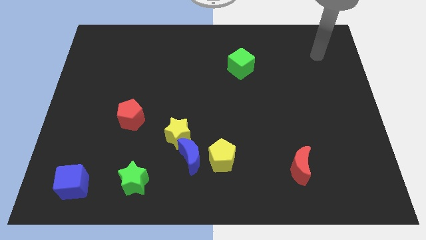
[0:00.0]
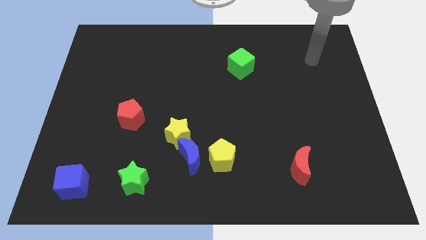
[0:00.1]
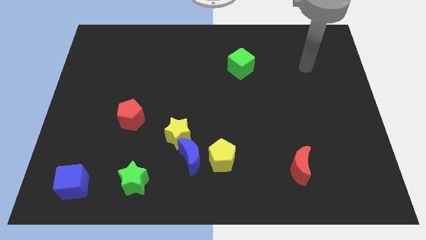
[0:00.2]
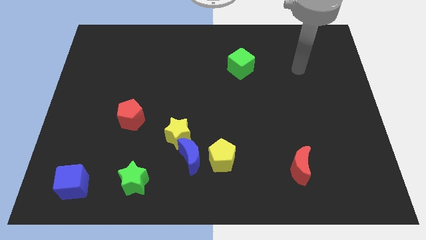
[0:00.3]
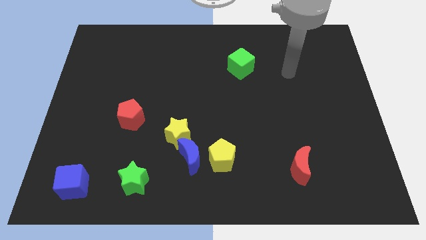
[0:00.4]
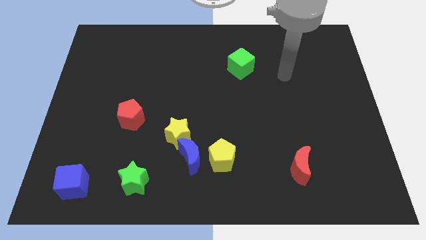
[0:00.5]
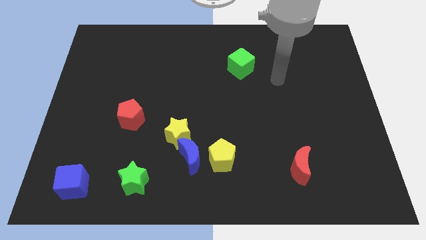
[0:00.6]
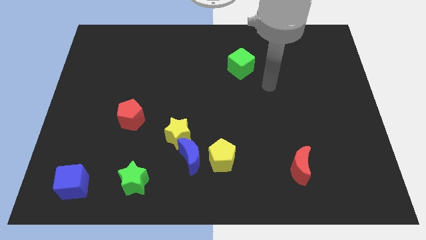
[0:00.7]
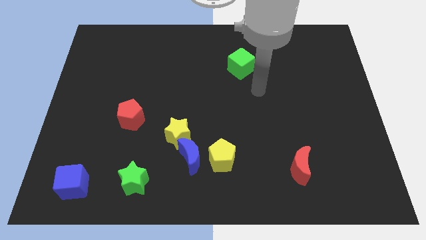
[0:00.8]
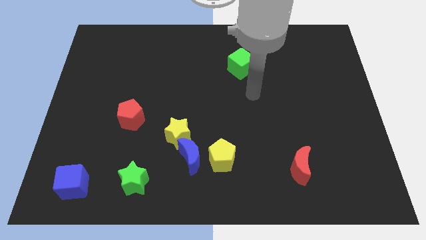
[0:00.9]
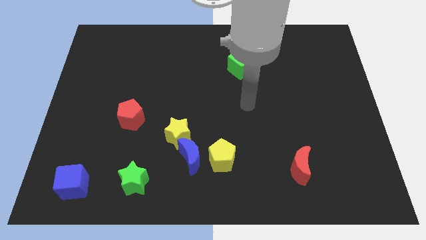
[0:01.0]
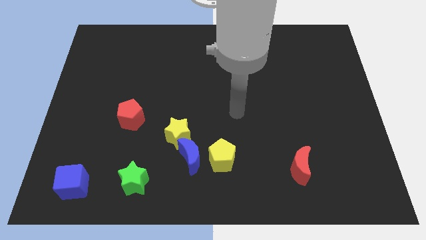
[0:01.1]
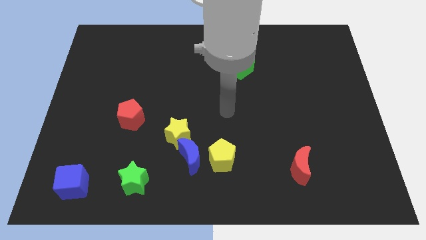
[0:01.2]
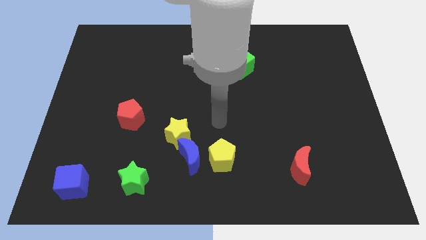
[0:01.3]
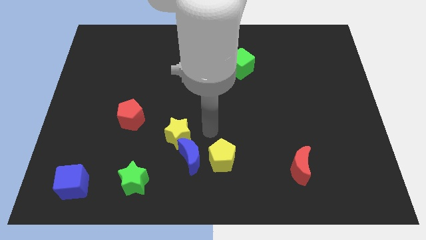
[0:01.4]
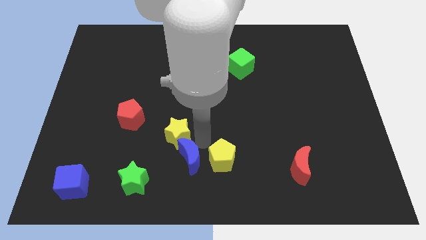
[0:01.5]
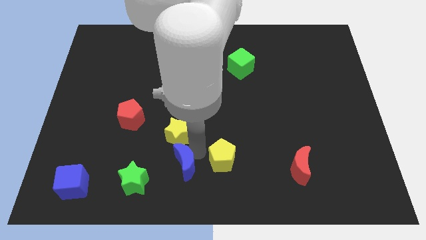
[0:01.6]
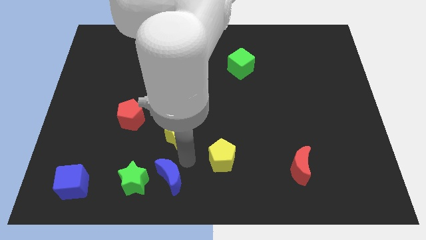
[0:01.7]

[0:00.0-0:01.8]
pull the yellow star apart from the blue moon

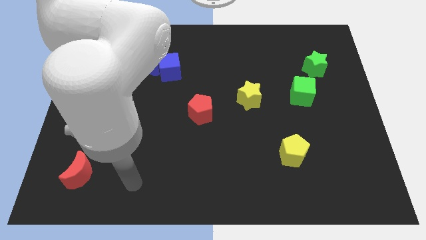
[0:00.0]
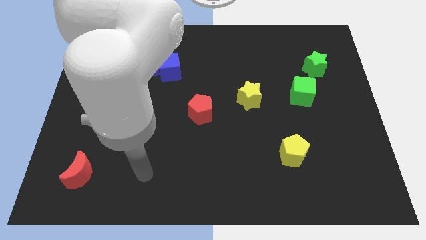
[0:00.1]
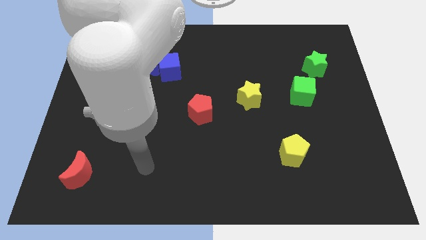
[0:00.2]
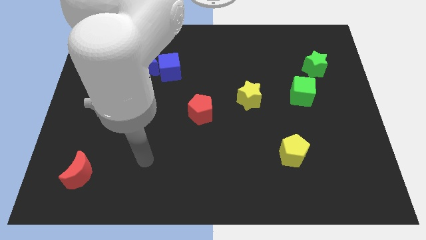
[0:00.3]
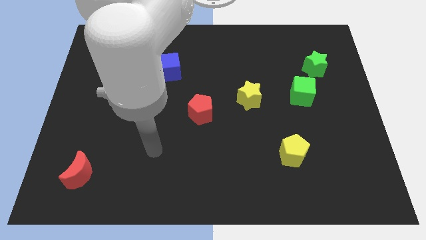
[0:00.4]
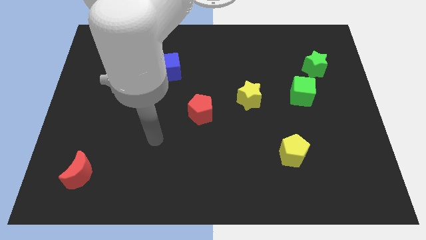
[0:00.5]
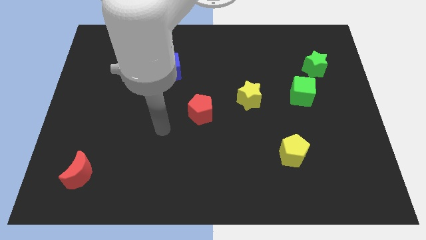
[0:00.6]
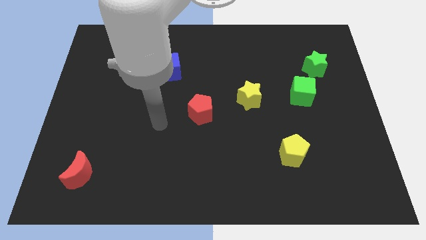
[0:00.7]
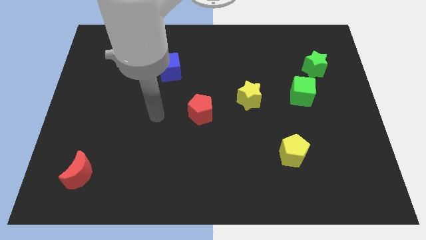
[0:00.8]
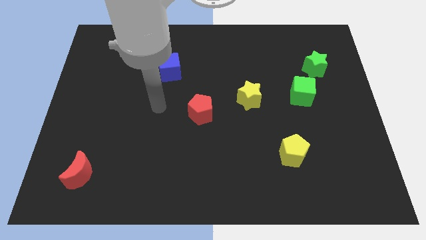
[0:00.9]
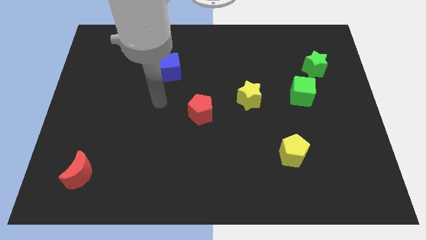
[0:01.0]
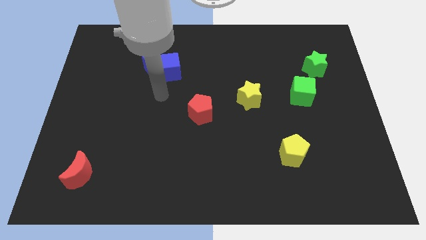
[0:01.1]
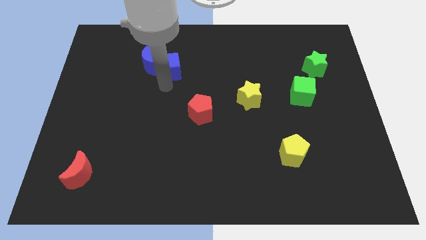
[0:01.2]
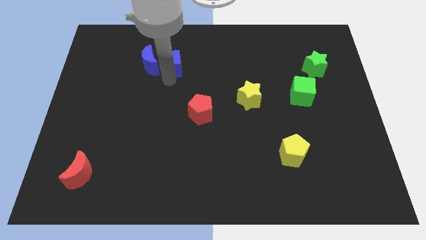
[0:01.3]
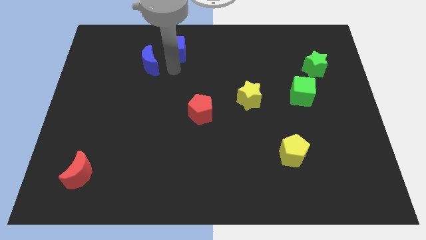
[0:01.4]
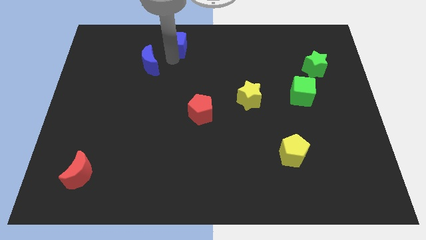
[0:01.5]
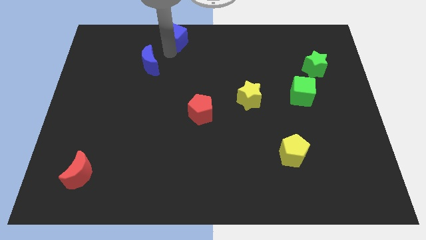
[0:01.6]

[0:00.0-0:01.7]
pull the blue moon apart from the blue cube

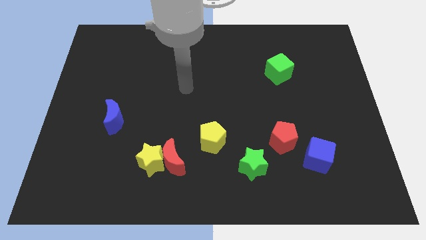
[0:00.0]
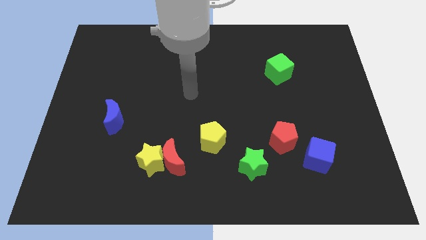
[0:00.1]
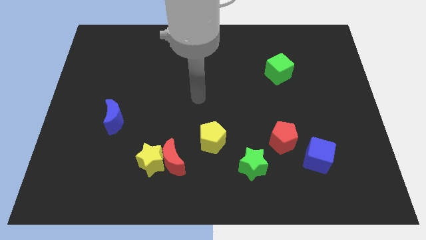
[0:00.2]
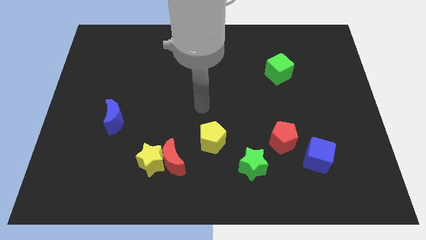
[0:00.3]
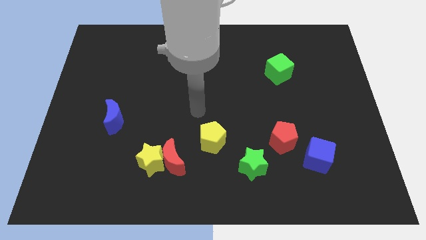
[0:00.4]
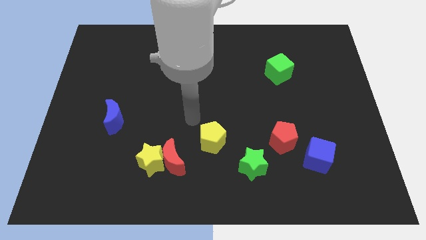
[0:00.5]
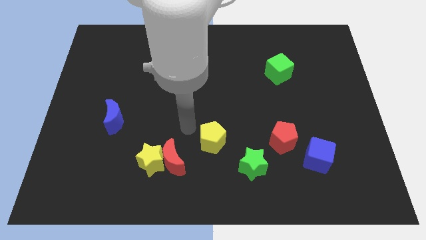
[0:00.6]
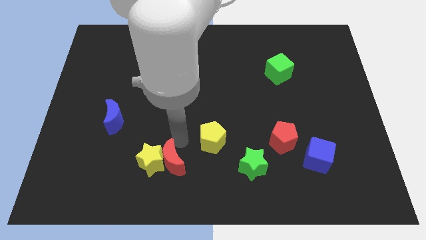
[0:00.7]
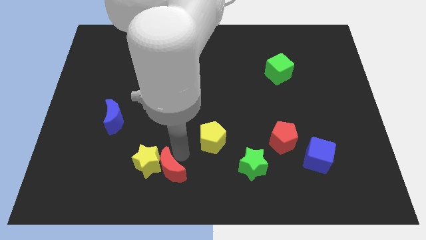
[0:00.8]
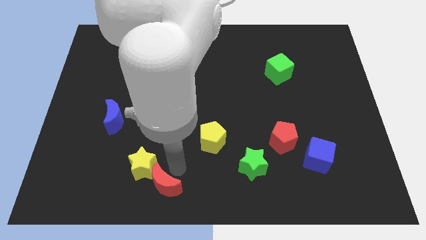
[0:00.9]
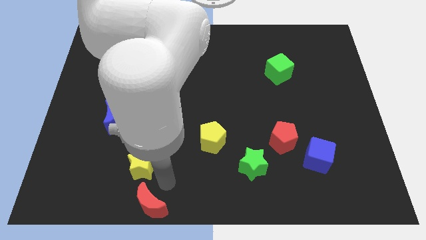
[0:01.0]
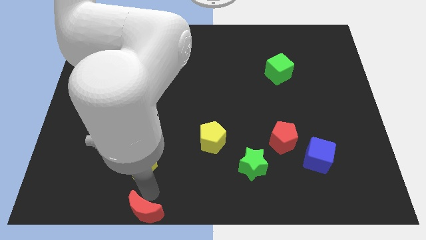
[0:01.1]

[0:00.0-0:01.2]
separate the yellow star from the red moon

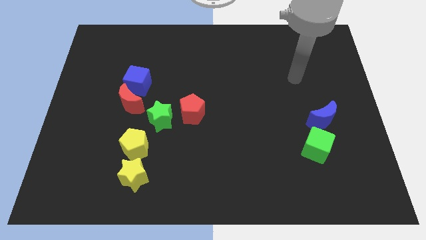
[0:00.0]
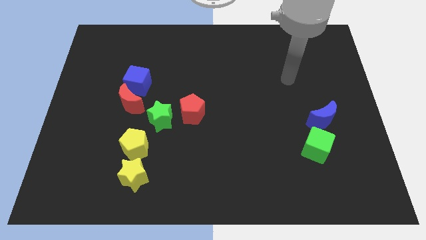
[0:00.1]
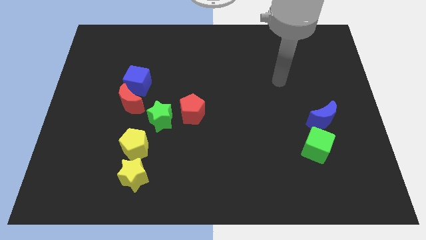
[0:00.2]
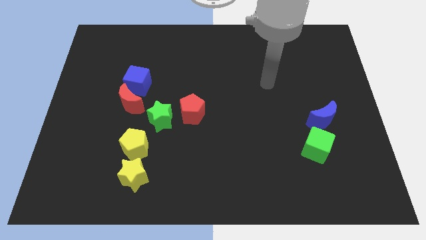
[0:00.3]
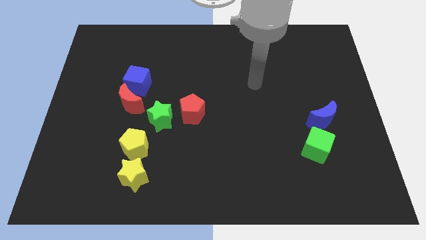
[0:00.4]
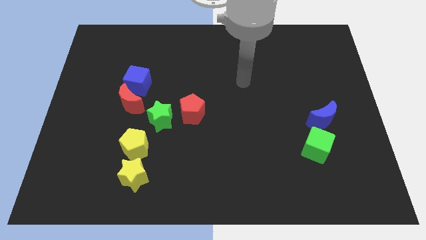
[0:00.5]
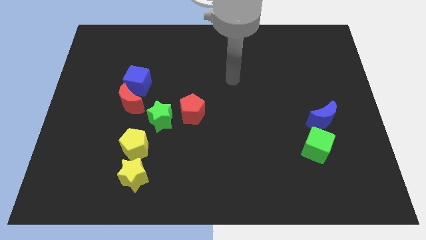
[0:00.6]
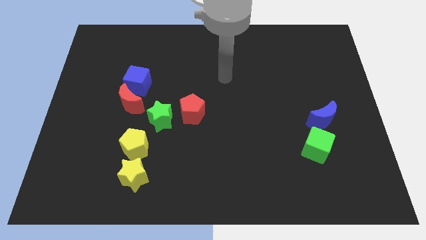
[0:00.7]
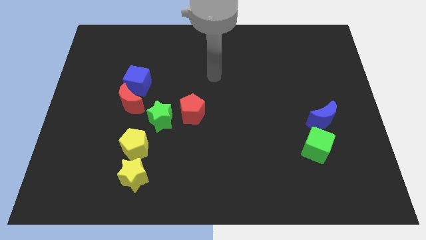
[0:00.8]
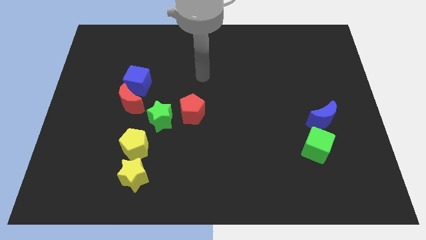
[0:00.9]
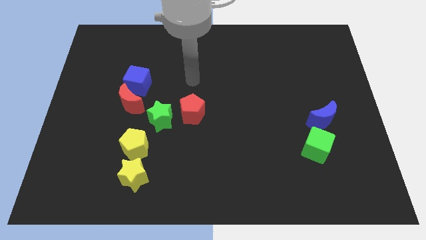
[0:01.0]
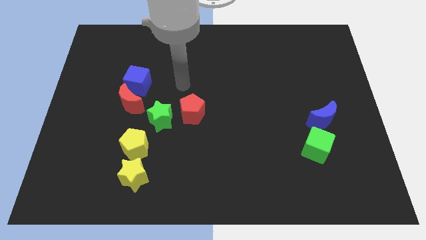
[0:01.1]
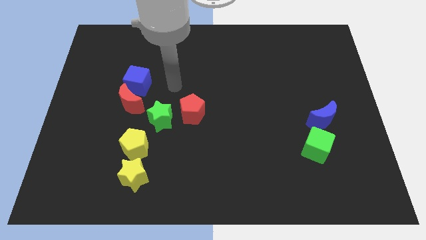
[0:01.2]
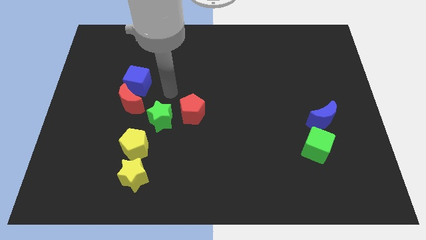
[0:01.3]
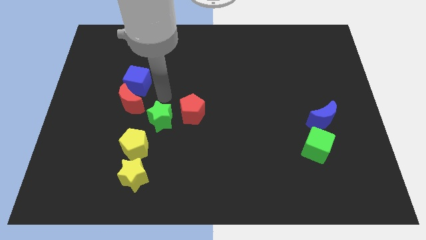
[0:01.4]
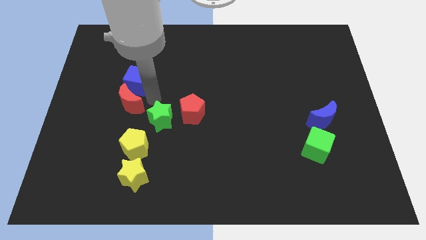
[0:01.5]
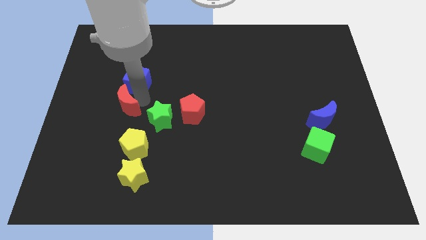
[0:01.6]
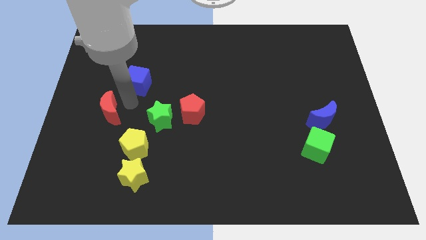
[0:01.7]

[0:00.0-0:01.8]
pull the blue cube apart from the red moon

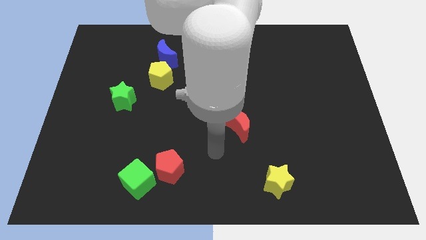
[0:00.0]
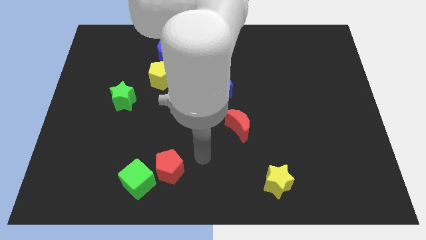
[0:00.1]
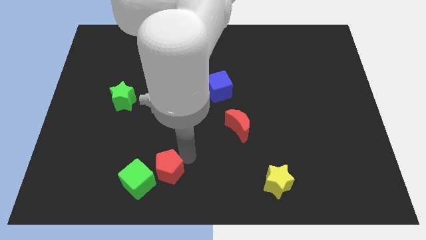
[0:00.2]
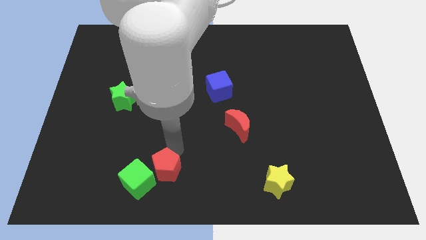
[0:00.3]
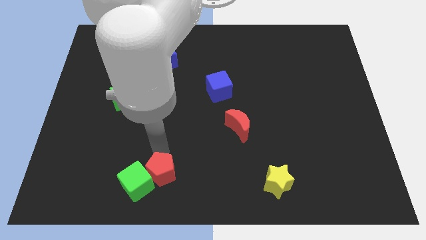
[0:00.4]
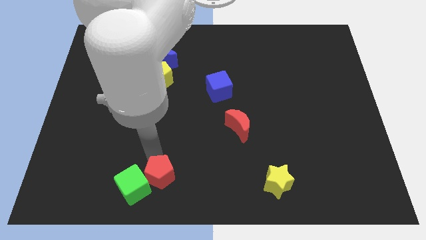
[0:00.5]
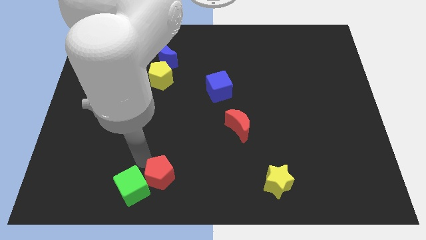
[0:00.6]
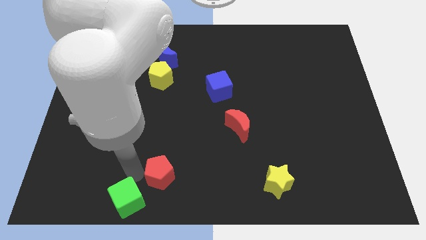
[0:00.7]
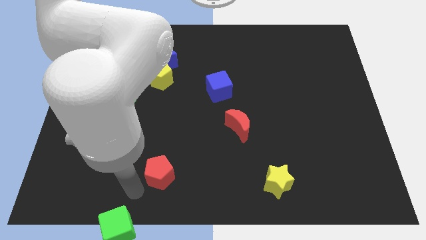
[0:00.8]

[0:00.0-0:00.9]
separate the red pentagon from the green cube

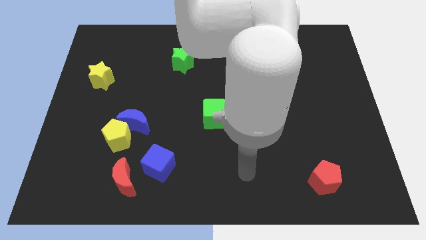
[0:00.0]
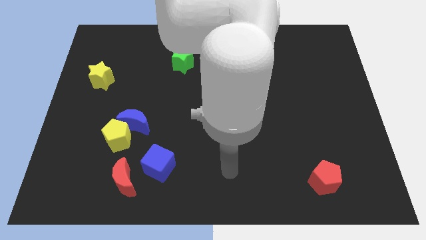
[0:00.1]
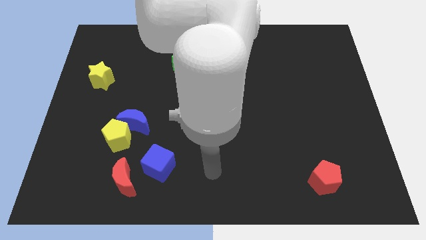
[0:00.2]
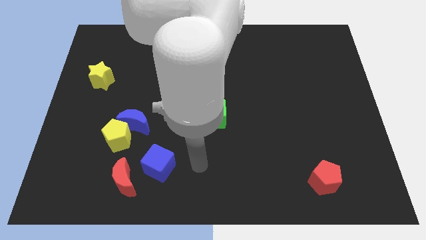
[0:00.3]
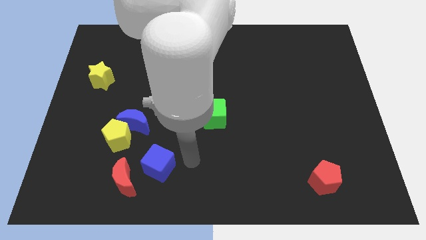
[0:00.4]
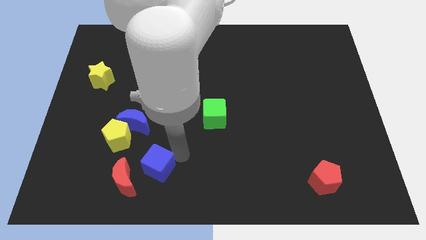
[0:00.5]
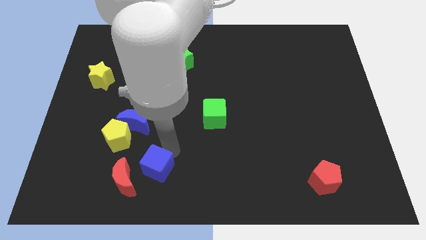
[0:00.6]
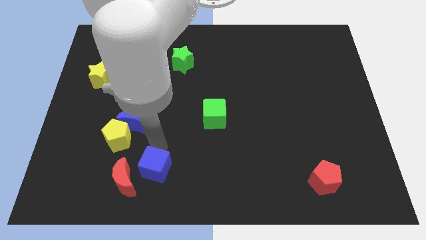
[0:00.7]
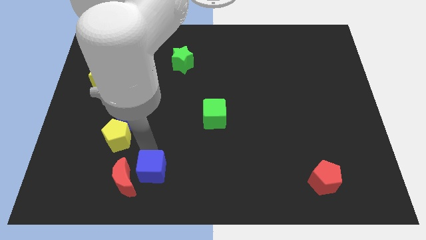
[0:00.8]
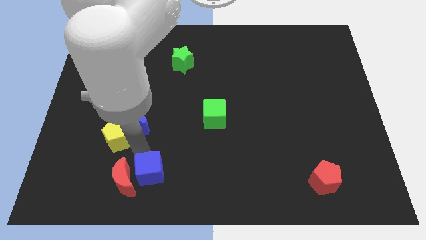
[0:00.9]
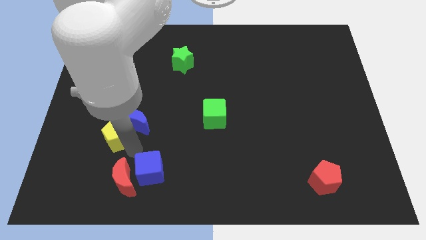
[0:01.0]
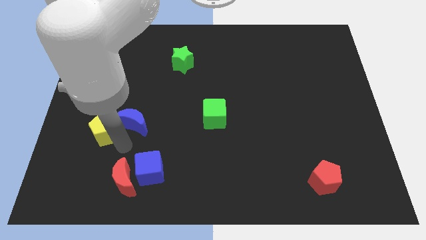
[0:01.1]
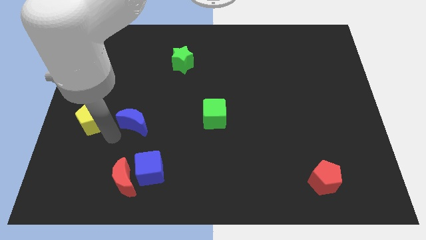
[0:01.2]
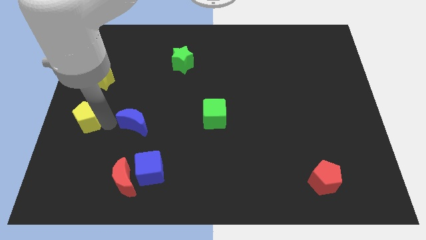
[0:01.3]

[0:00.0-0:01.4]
pull the blue moon apart from the yellow pentagon

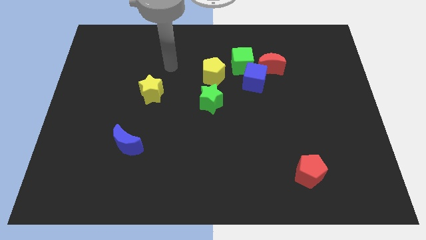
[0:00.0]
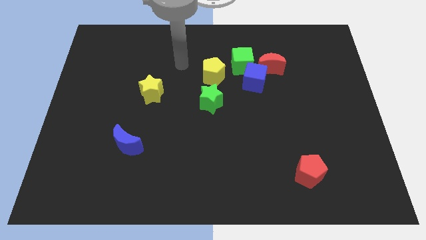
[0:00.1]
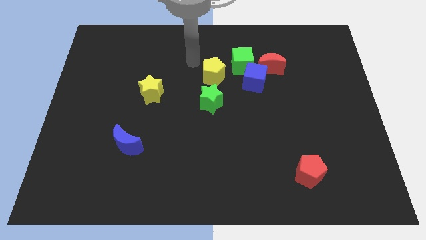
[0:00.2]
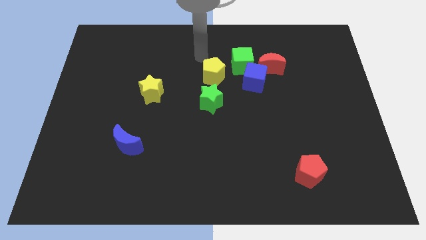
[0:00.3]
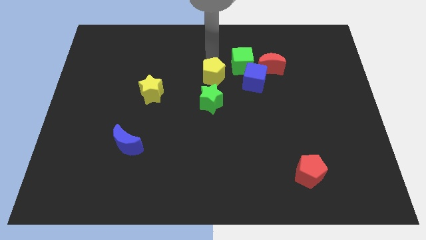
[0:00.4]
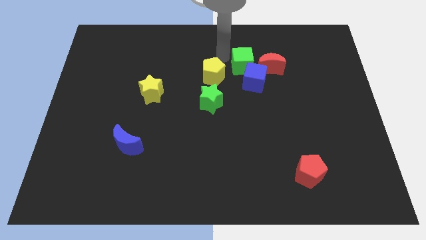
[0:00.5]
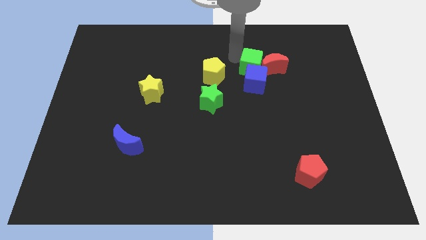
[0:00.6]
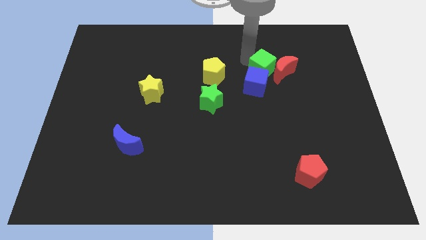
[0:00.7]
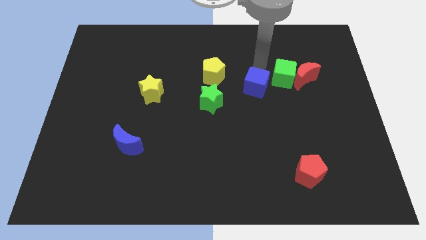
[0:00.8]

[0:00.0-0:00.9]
separate the blue cube from the green cube and red moon
